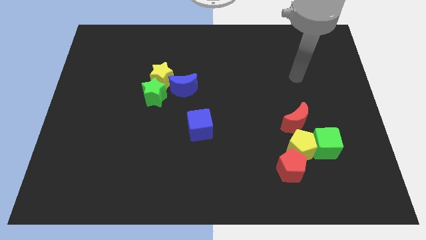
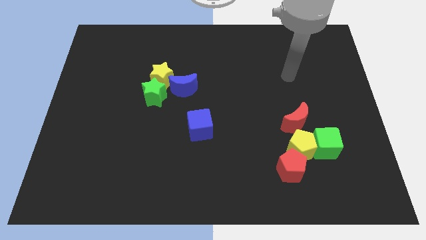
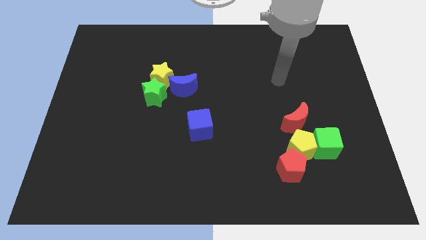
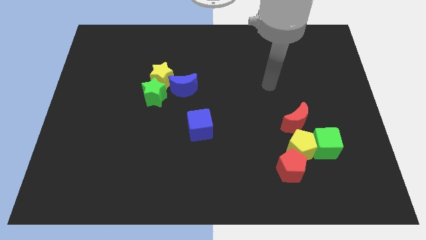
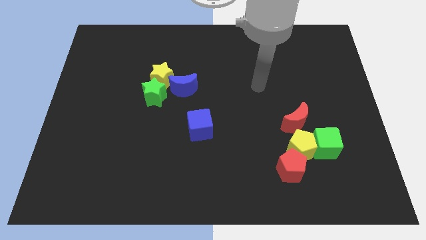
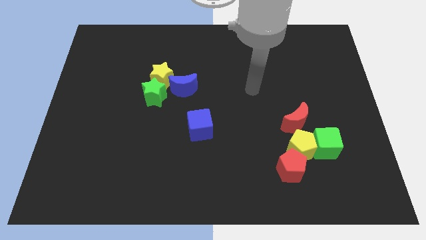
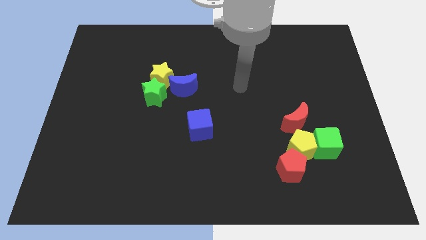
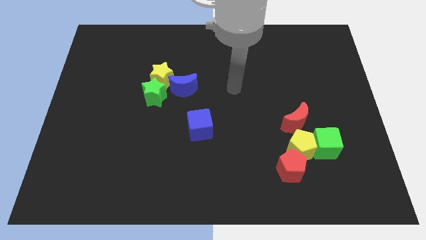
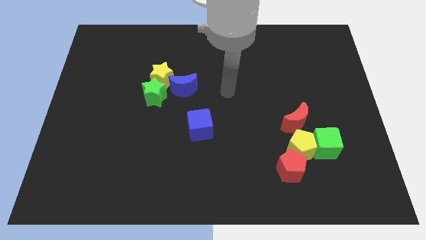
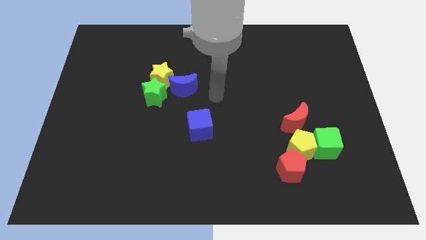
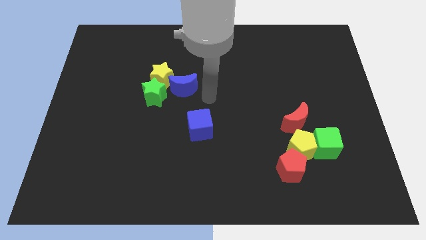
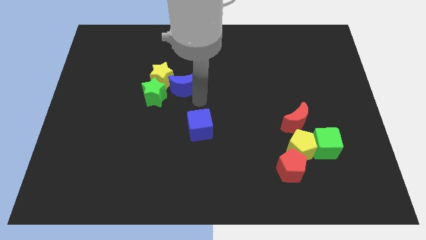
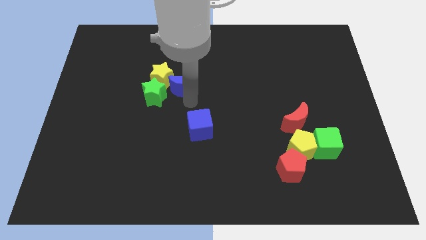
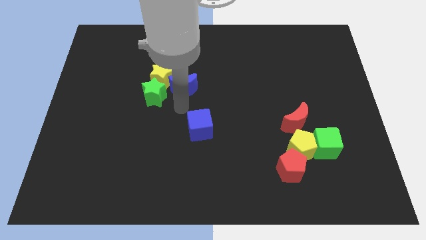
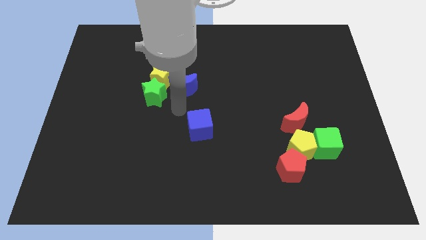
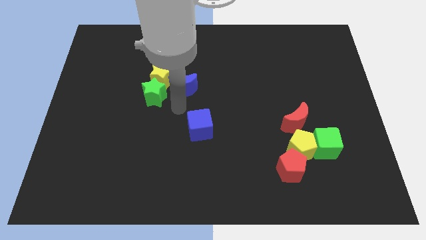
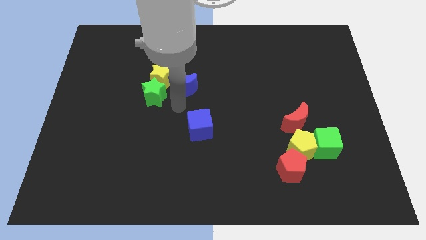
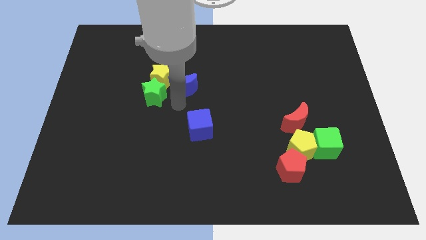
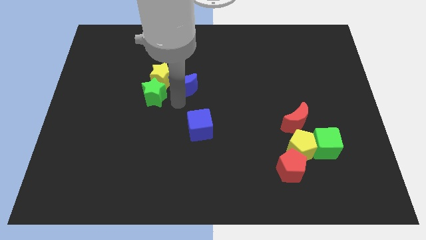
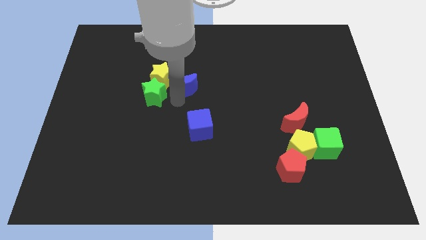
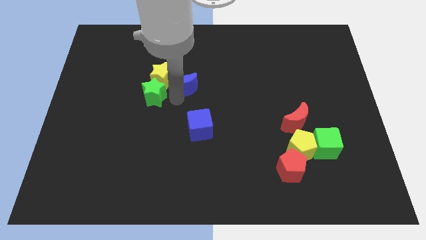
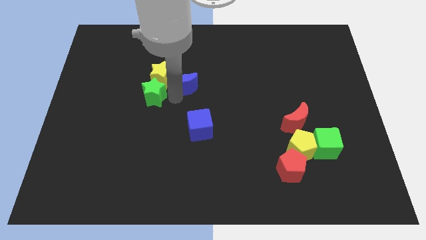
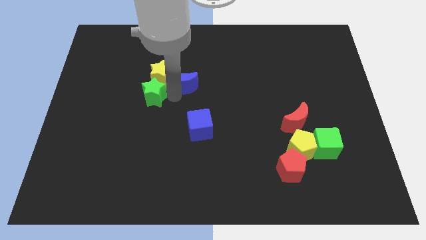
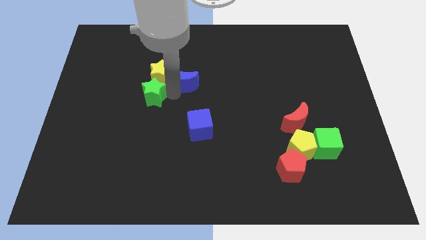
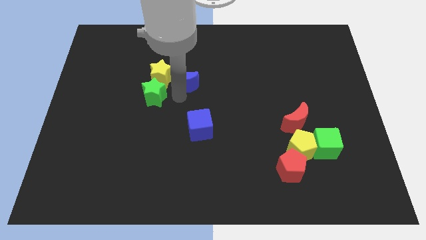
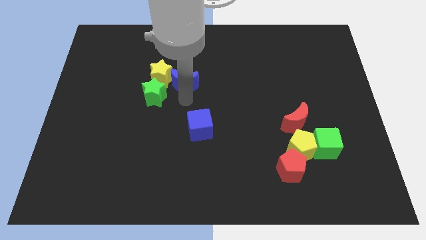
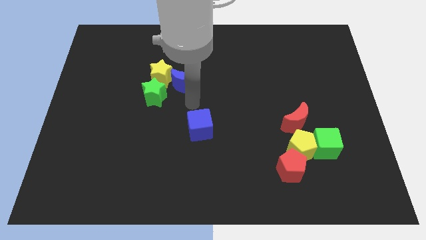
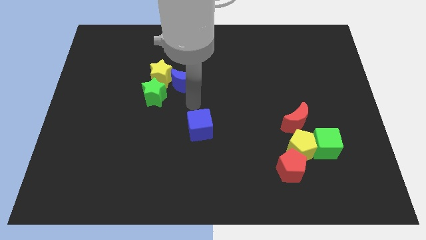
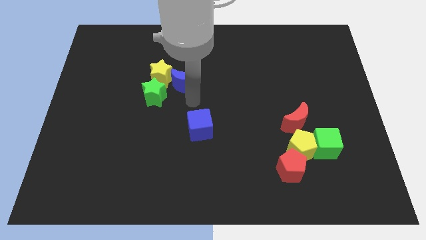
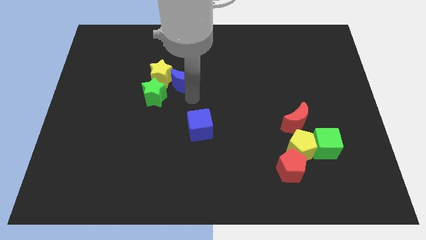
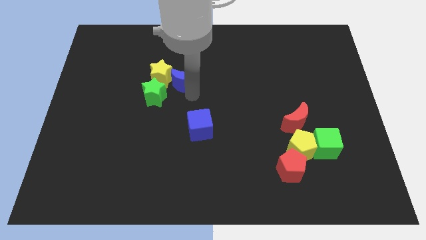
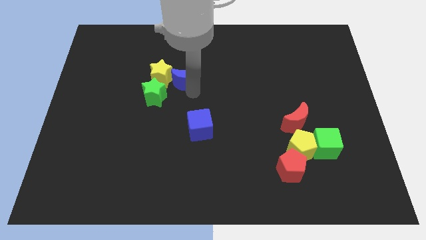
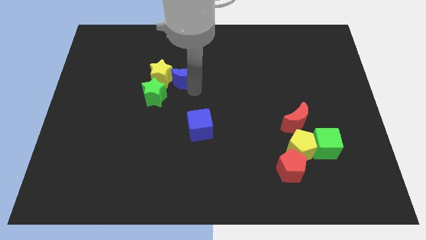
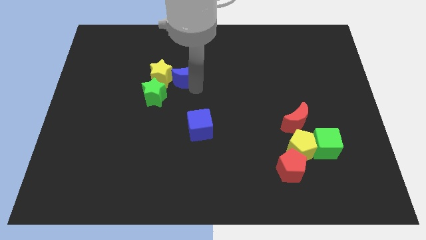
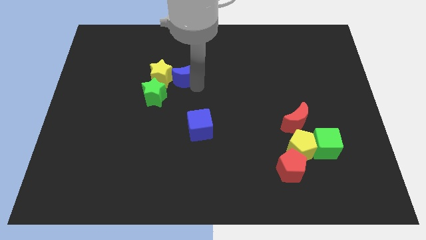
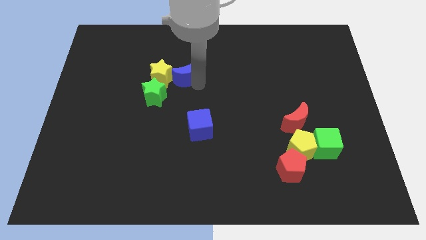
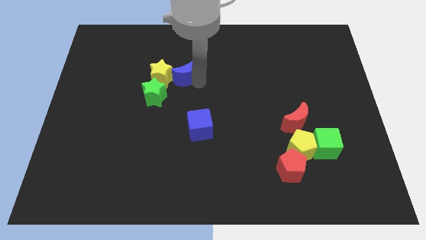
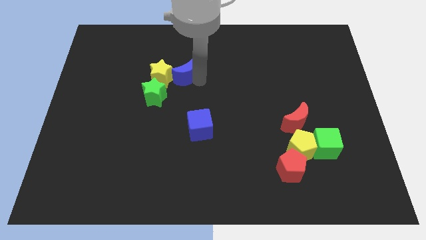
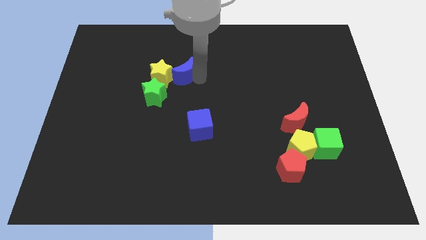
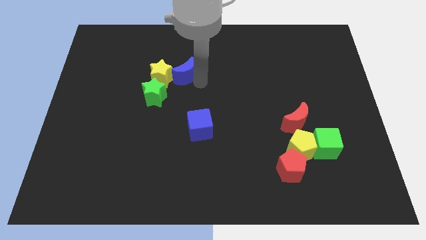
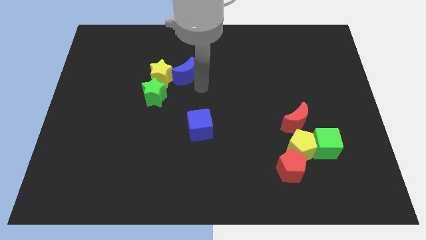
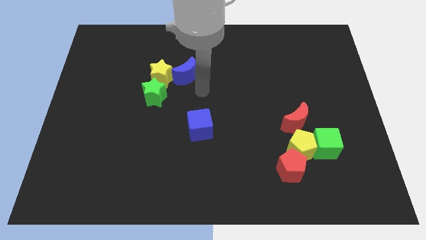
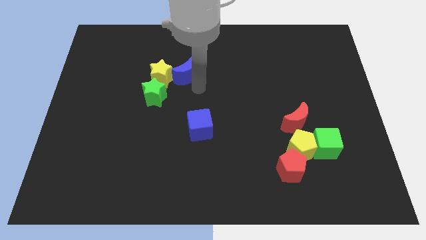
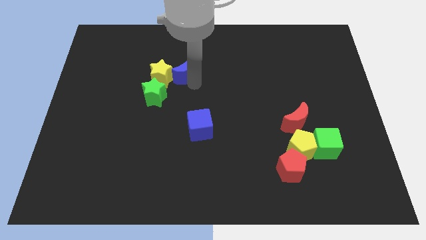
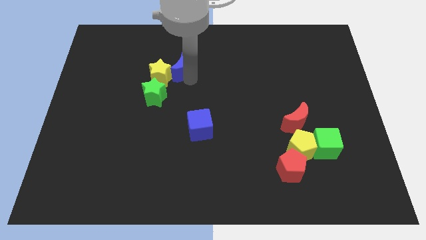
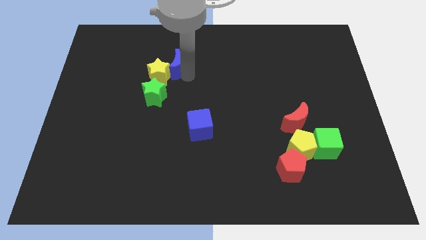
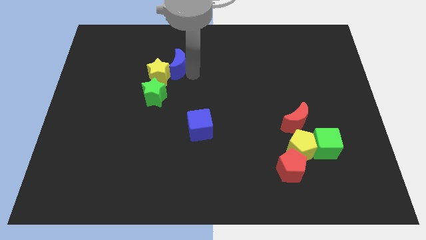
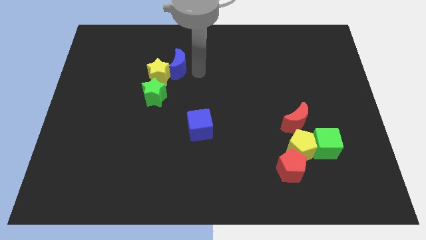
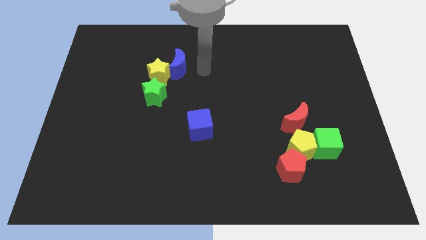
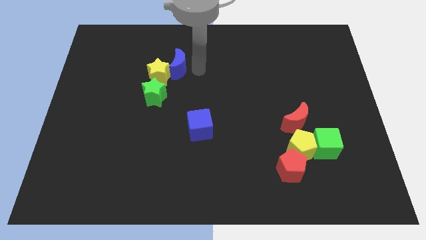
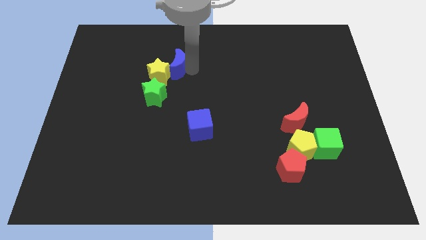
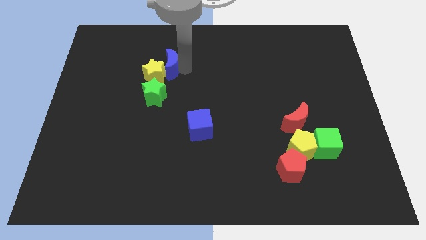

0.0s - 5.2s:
push the blue moon to the top side of the green star

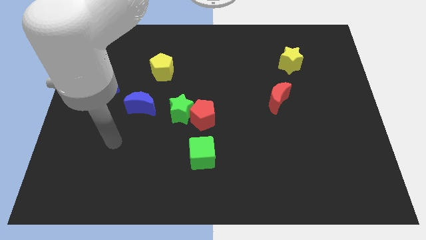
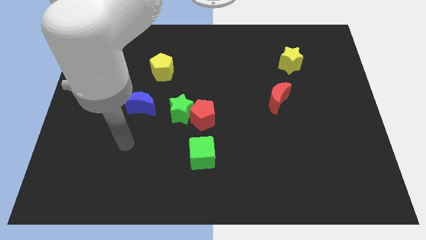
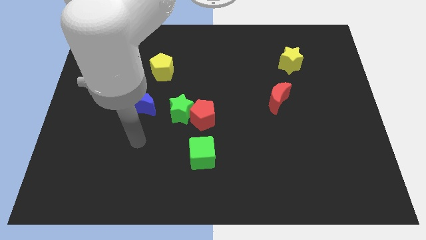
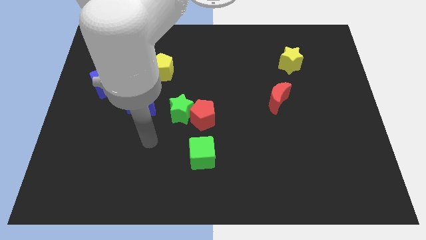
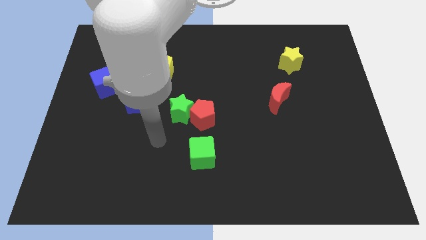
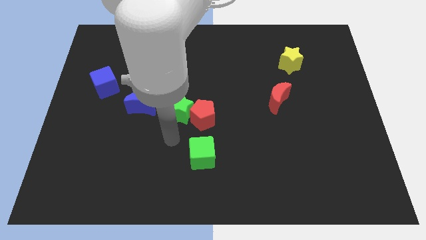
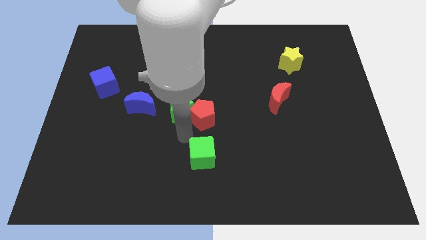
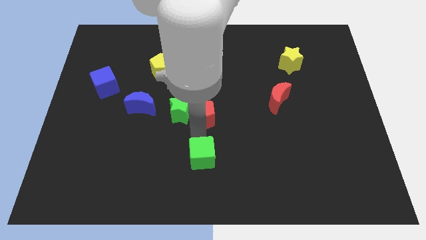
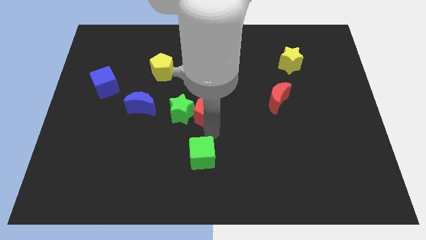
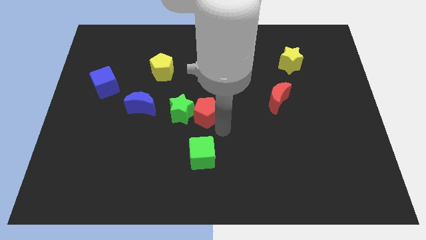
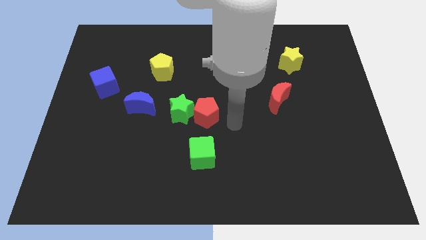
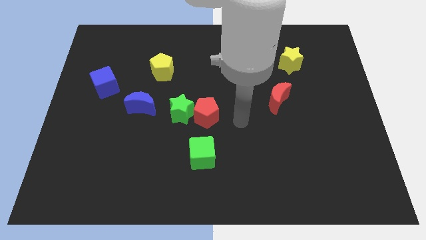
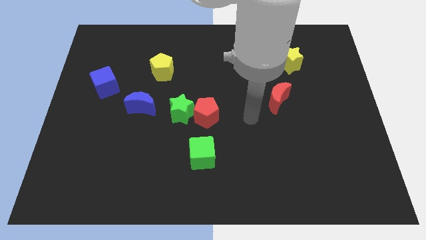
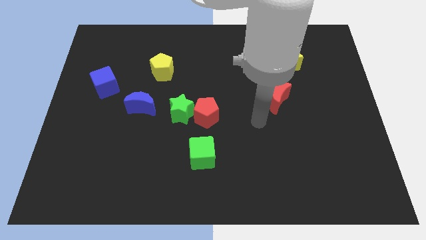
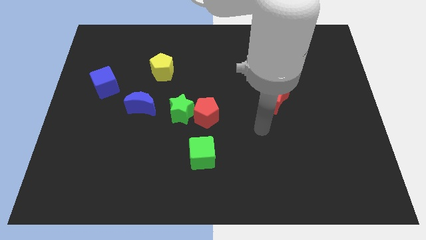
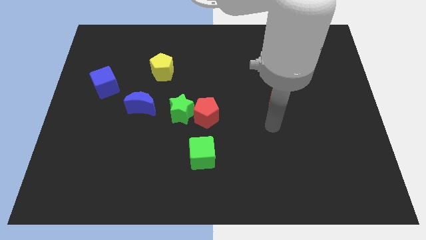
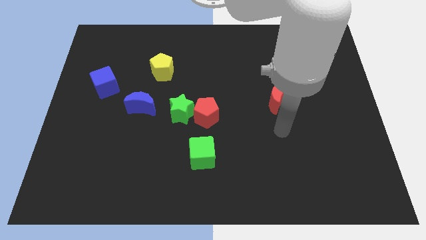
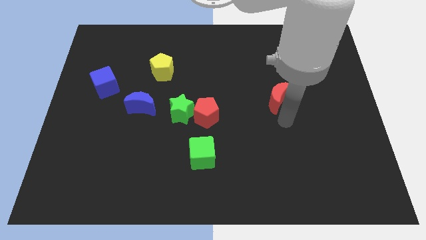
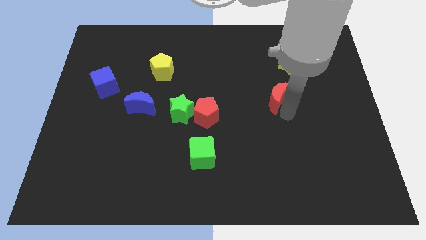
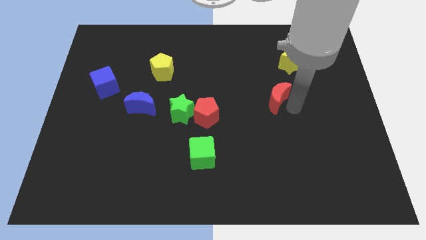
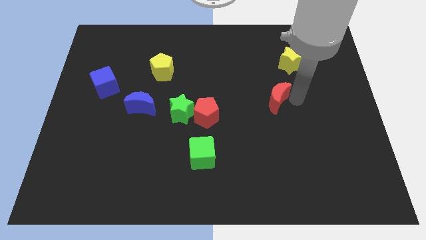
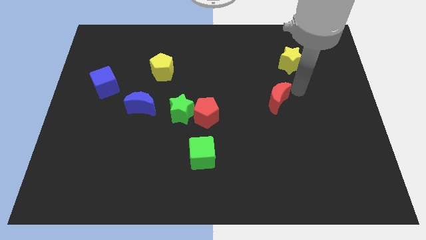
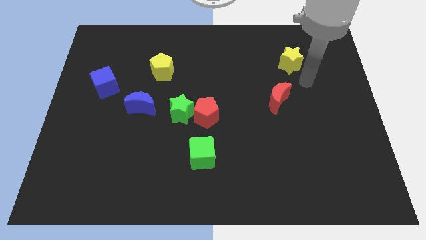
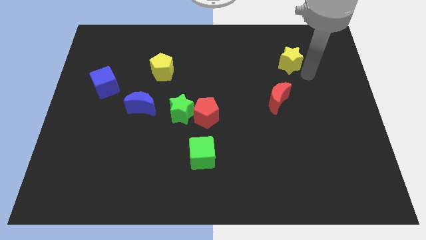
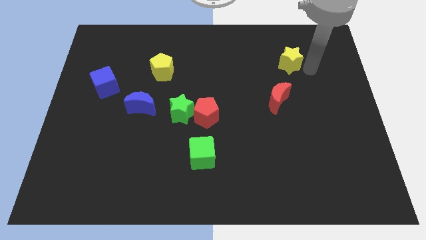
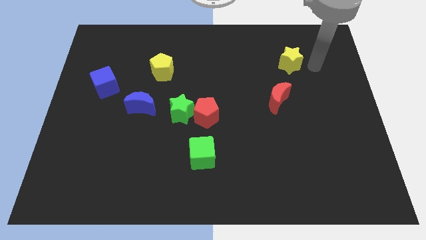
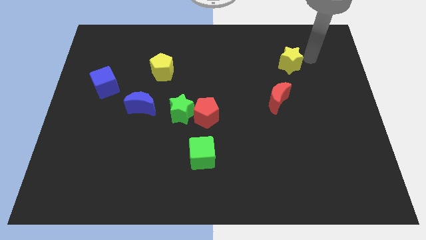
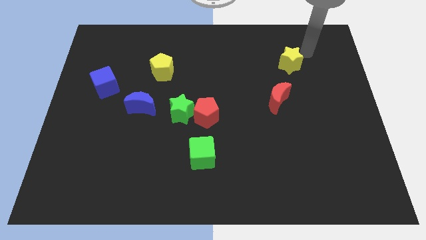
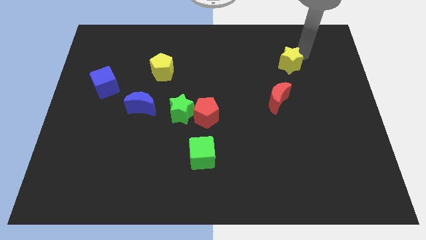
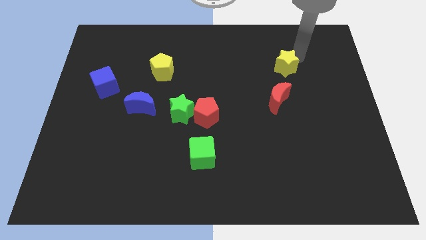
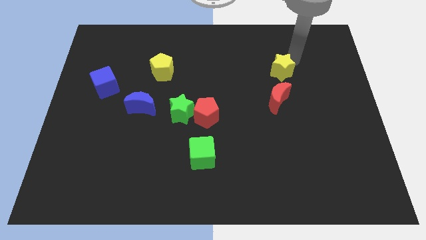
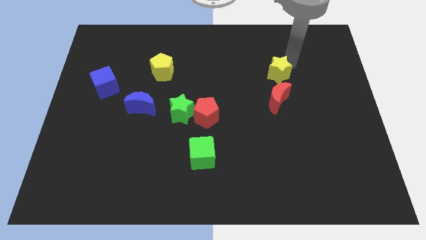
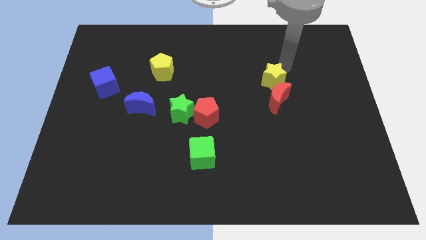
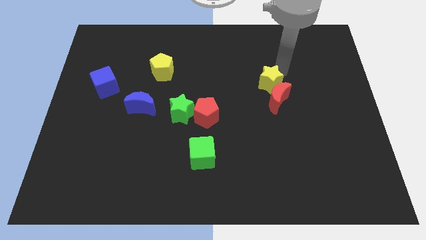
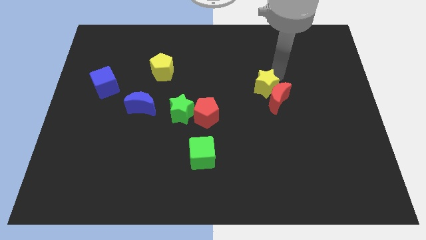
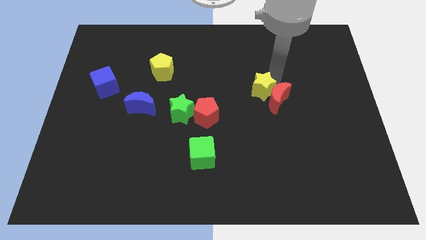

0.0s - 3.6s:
move the yellow star left of the red moon
